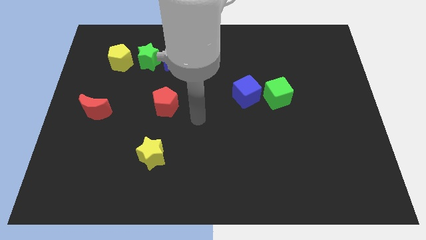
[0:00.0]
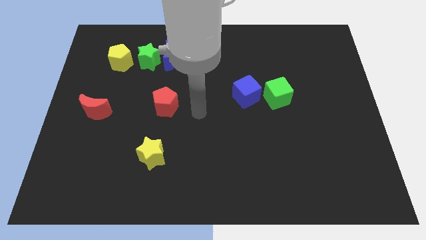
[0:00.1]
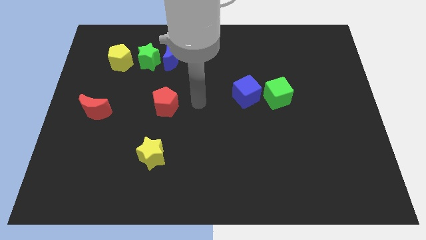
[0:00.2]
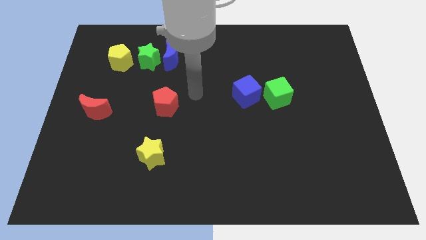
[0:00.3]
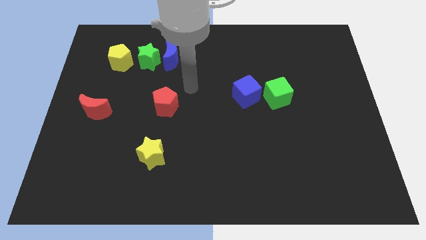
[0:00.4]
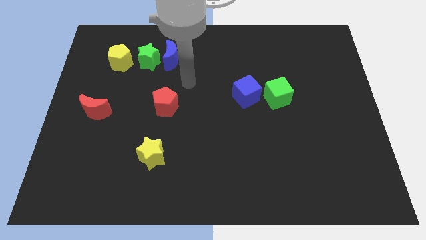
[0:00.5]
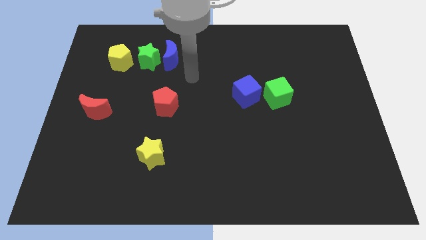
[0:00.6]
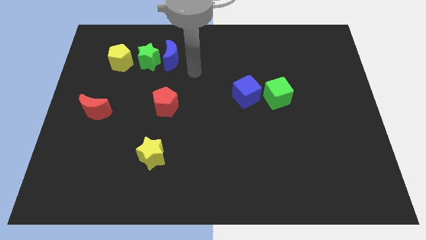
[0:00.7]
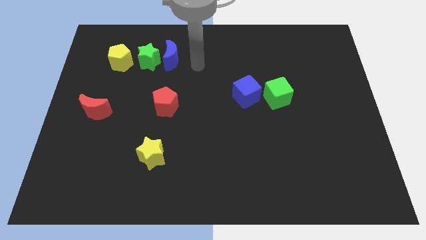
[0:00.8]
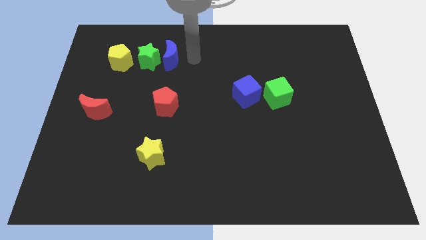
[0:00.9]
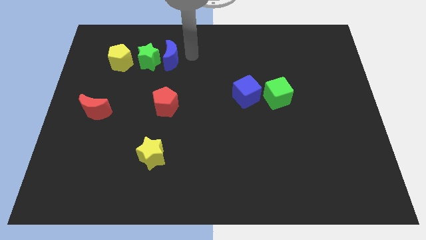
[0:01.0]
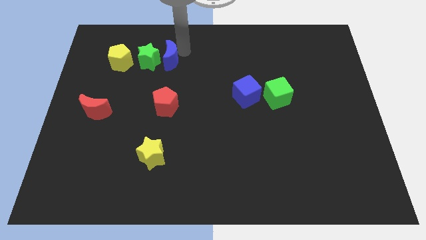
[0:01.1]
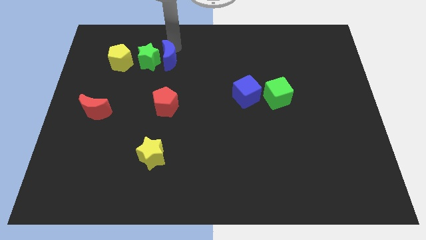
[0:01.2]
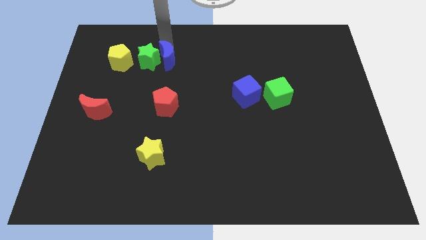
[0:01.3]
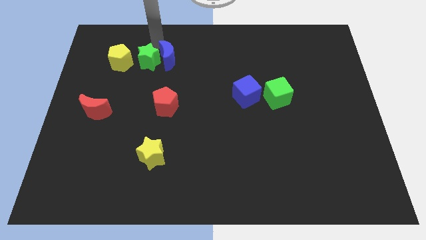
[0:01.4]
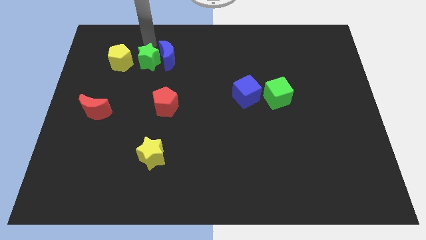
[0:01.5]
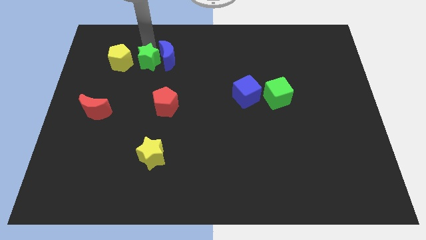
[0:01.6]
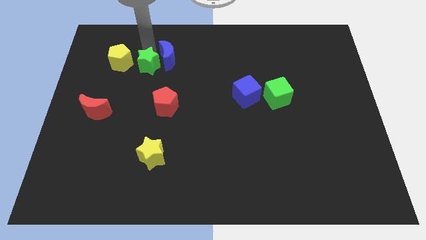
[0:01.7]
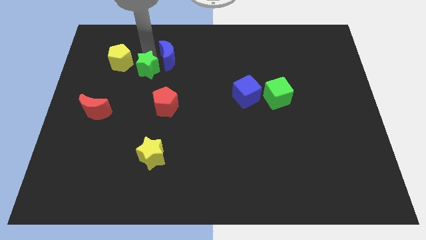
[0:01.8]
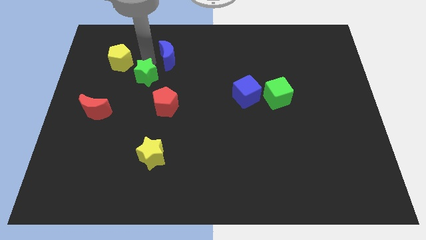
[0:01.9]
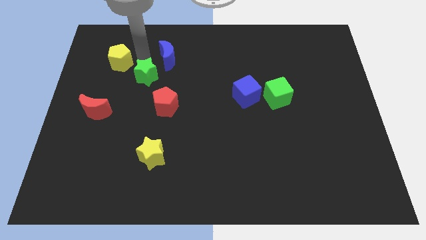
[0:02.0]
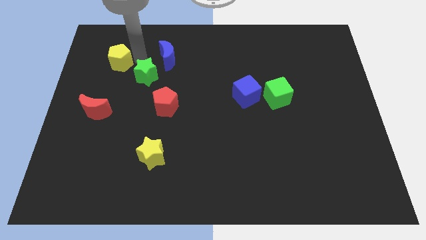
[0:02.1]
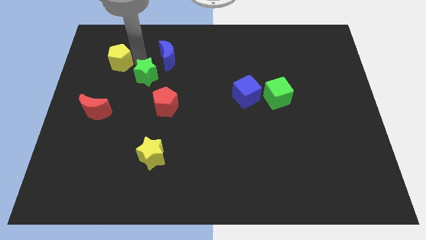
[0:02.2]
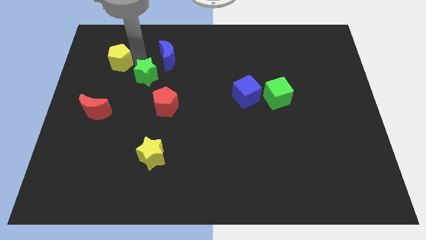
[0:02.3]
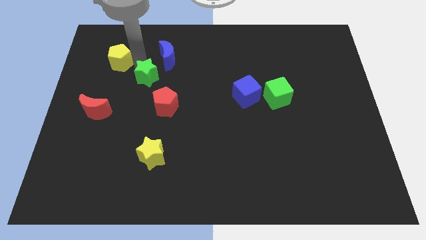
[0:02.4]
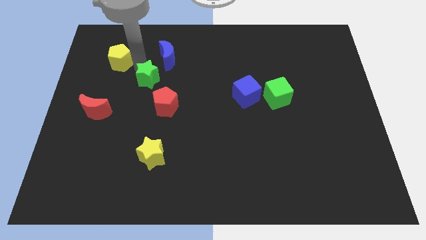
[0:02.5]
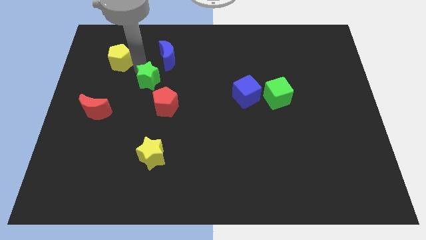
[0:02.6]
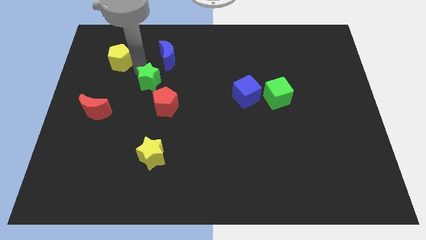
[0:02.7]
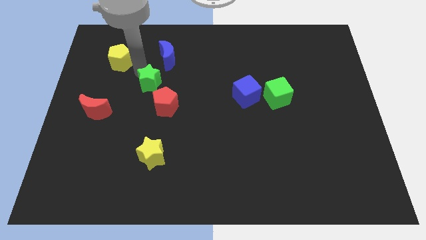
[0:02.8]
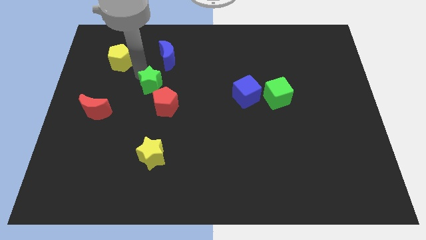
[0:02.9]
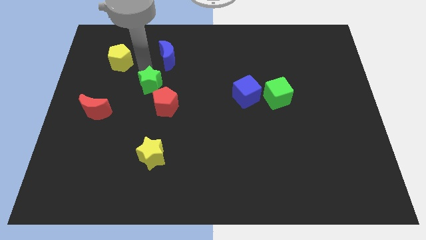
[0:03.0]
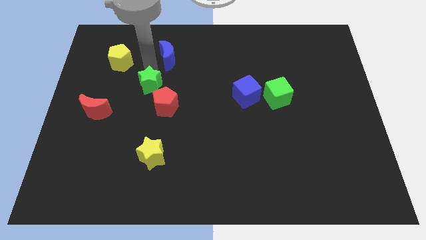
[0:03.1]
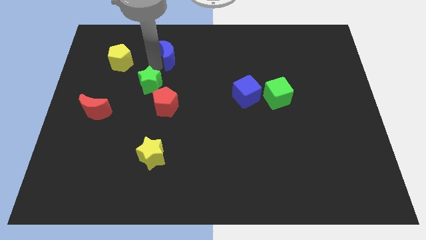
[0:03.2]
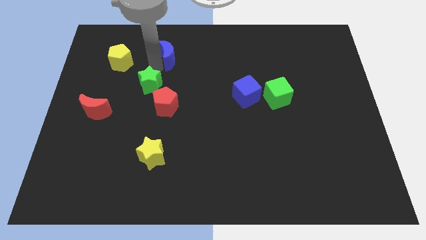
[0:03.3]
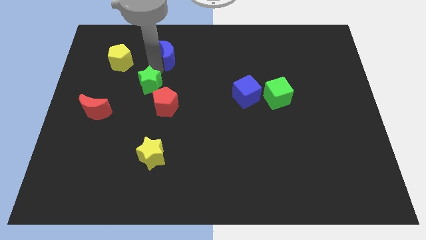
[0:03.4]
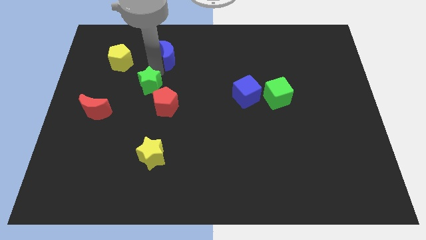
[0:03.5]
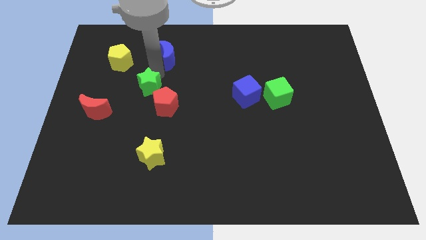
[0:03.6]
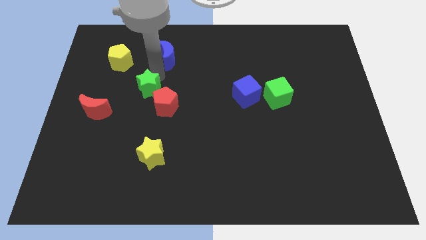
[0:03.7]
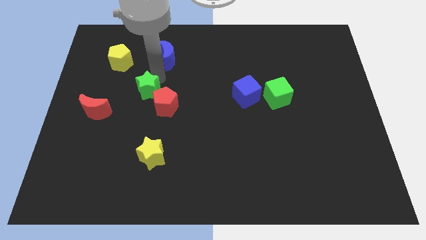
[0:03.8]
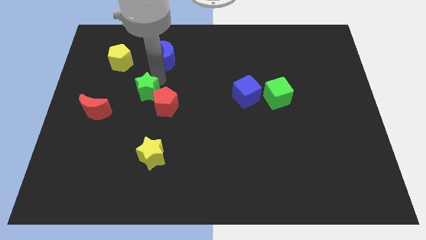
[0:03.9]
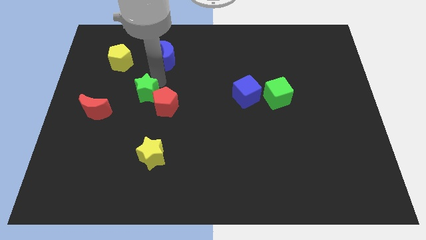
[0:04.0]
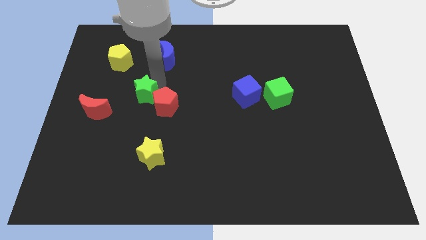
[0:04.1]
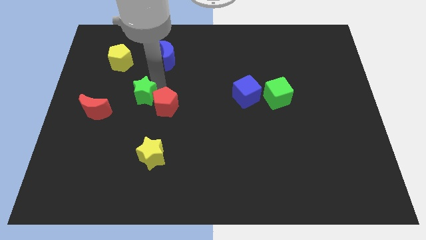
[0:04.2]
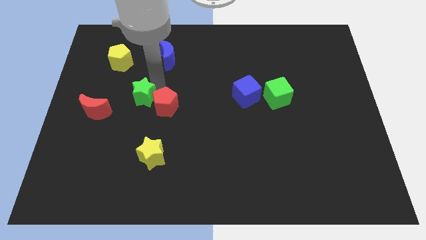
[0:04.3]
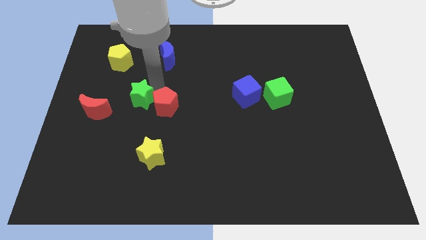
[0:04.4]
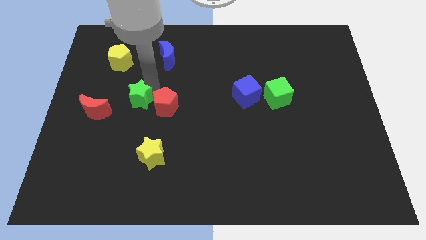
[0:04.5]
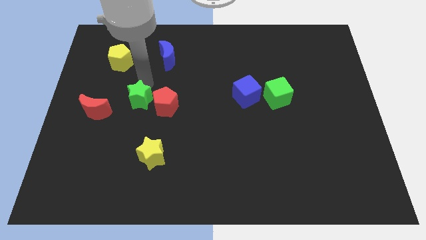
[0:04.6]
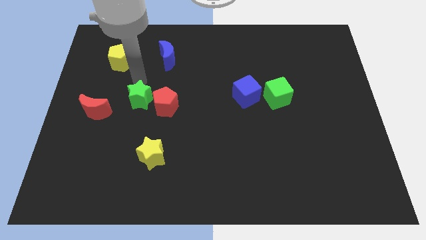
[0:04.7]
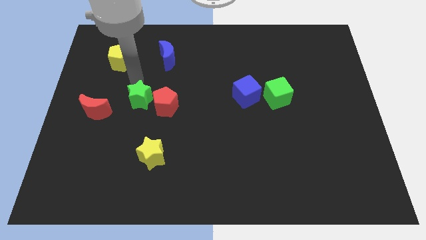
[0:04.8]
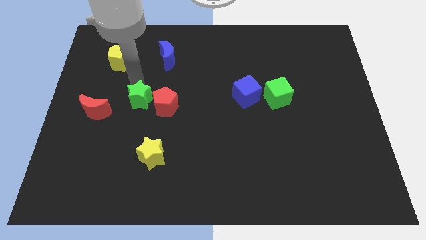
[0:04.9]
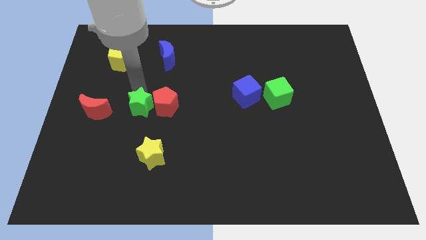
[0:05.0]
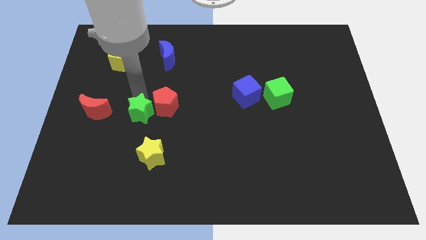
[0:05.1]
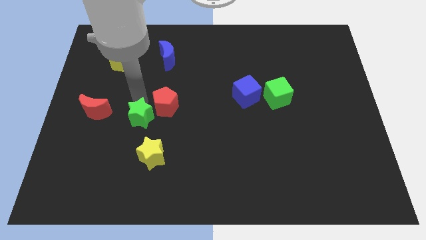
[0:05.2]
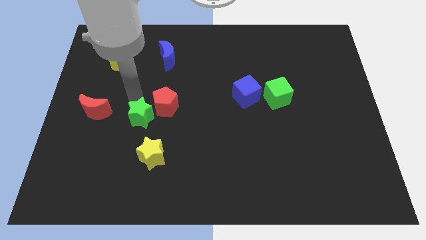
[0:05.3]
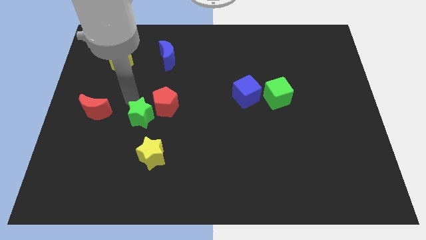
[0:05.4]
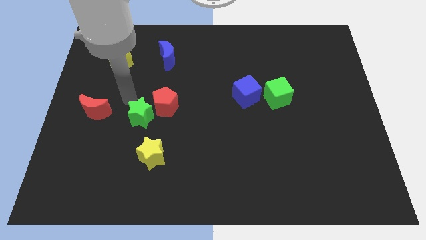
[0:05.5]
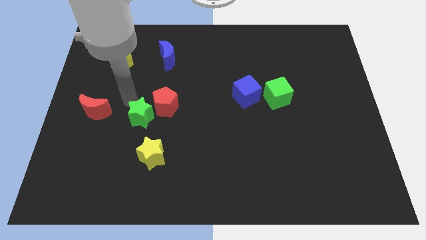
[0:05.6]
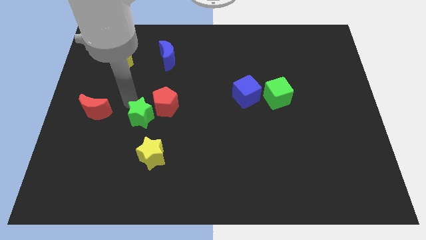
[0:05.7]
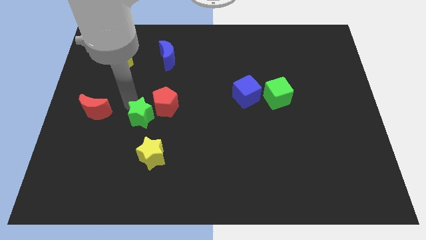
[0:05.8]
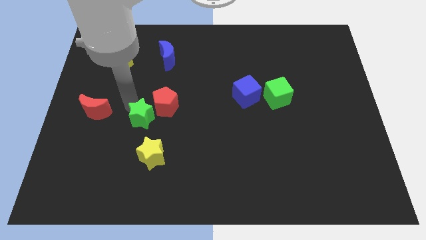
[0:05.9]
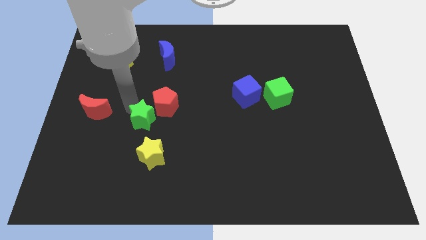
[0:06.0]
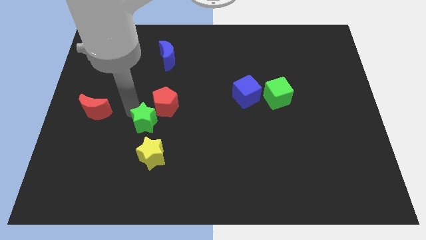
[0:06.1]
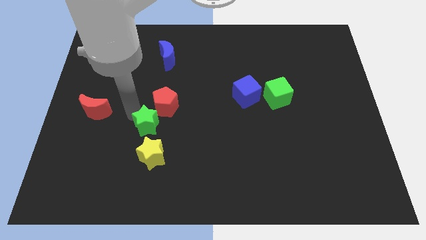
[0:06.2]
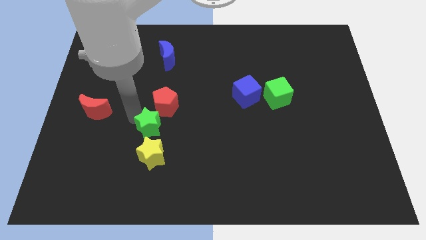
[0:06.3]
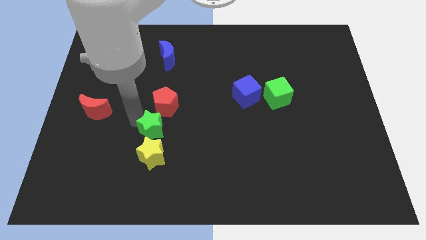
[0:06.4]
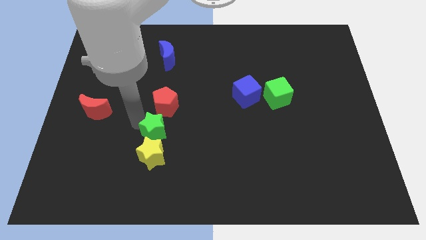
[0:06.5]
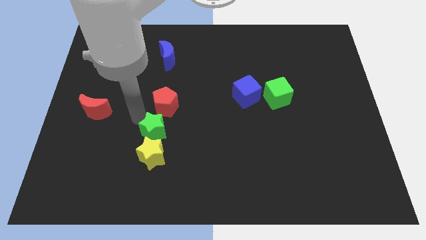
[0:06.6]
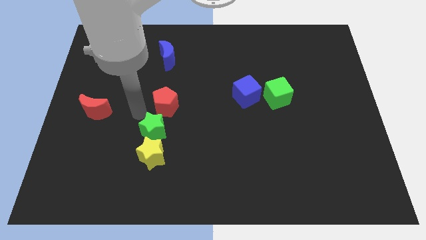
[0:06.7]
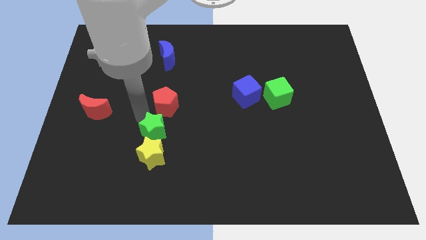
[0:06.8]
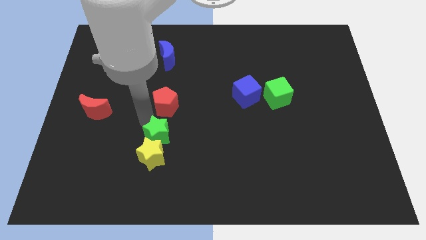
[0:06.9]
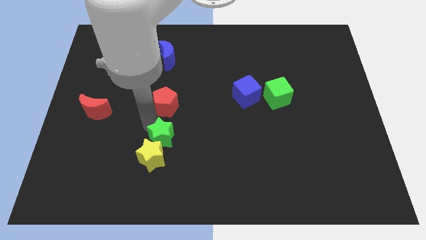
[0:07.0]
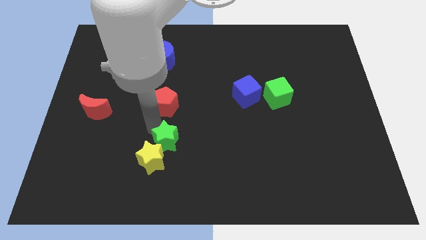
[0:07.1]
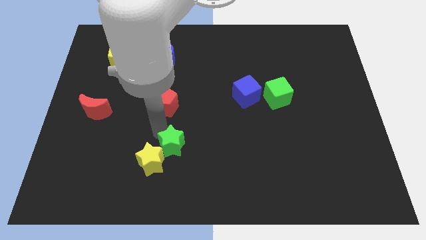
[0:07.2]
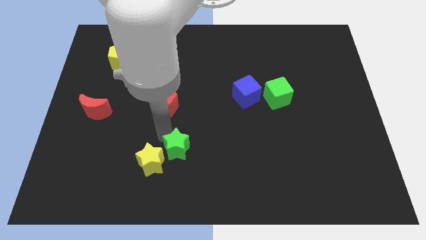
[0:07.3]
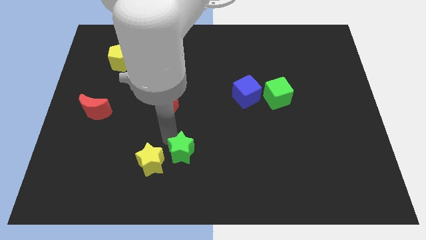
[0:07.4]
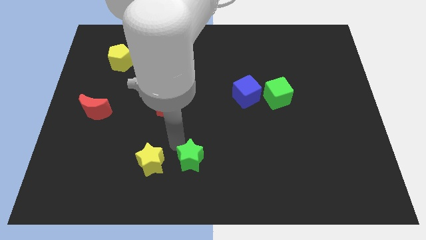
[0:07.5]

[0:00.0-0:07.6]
move the green star to the bottom
